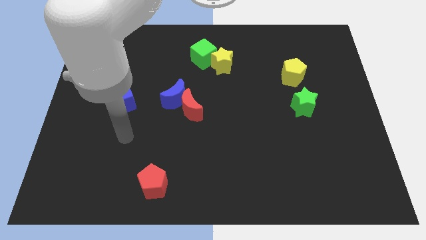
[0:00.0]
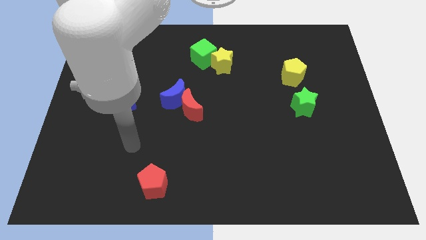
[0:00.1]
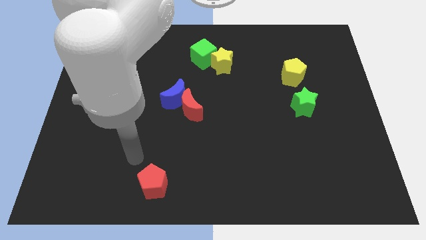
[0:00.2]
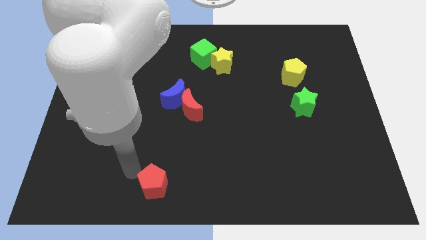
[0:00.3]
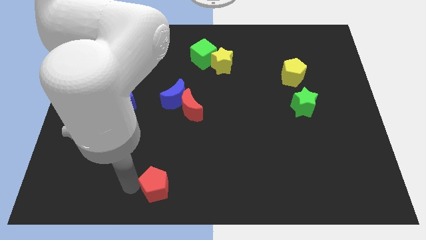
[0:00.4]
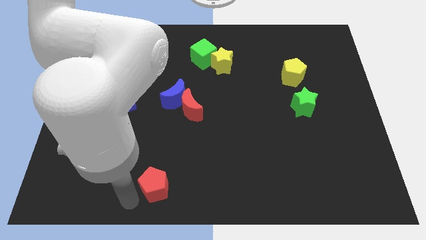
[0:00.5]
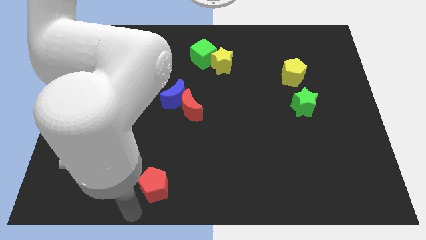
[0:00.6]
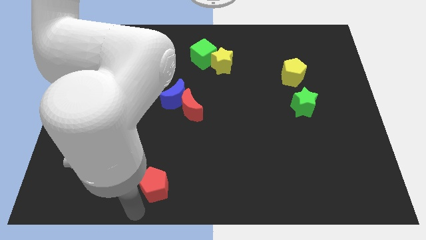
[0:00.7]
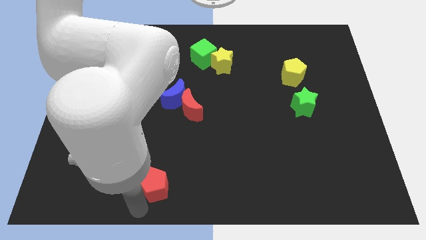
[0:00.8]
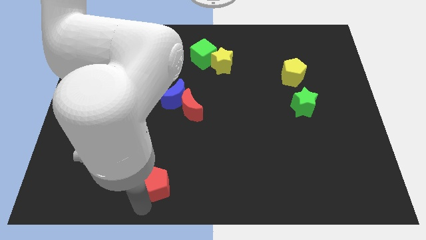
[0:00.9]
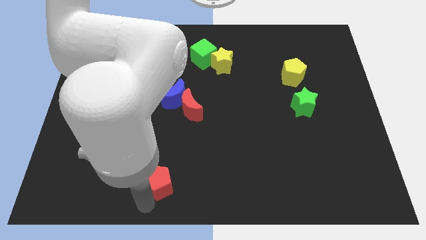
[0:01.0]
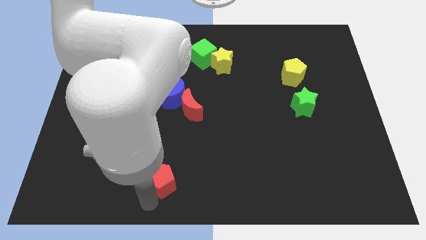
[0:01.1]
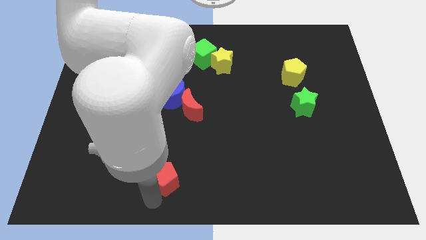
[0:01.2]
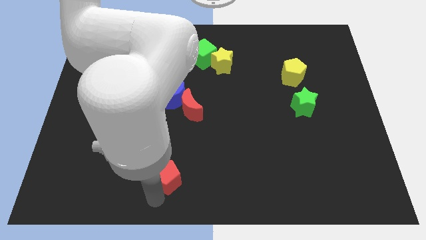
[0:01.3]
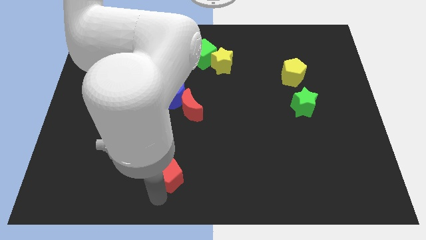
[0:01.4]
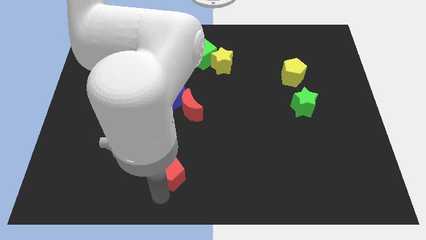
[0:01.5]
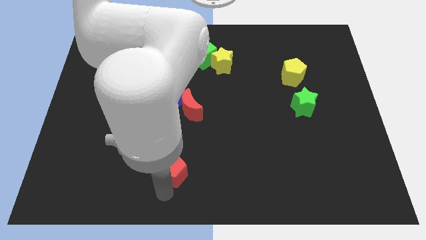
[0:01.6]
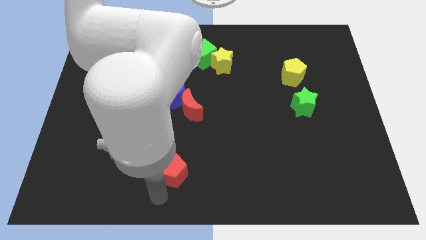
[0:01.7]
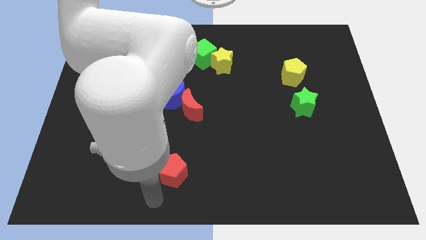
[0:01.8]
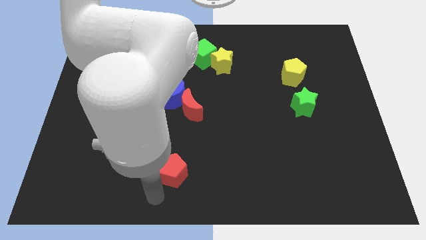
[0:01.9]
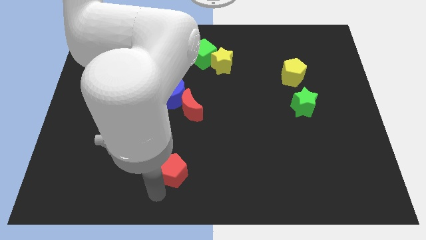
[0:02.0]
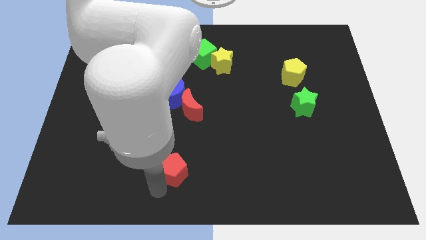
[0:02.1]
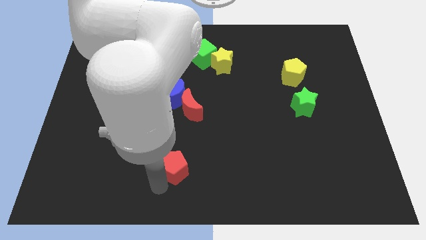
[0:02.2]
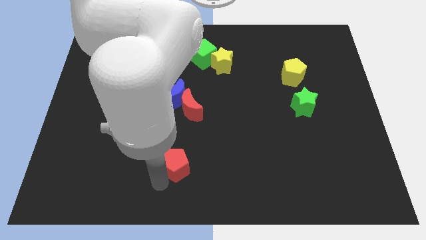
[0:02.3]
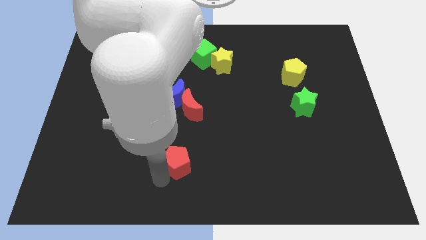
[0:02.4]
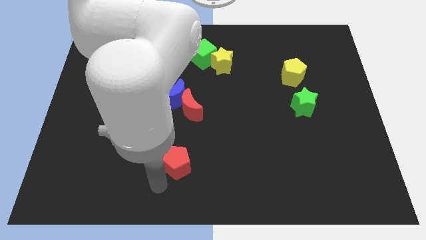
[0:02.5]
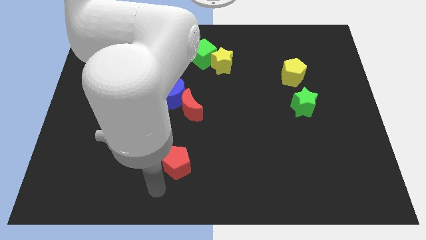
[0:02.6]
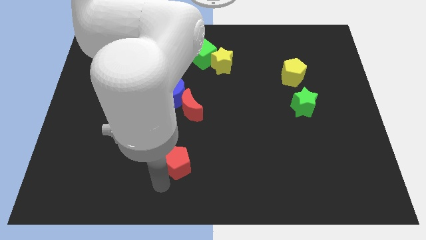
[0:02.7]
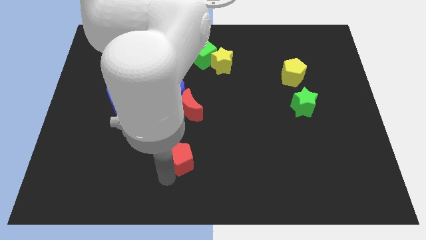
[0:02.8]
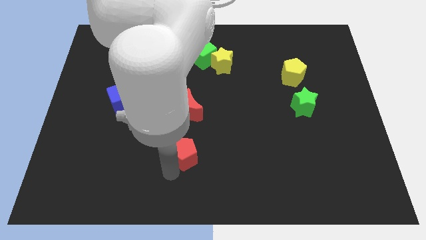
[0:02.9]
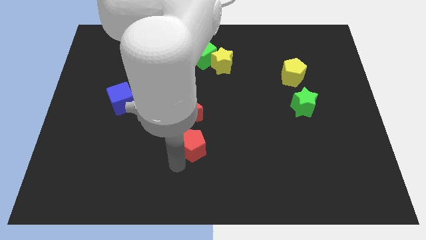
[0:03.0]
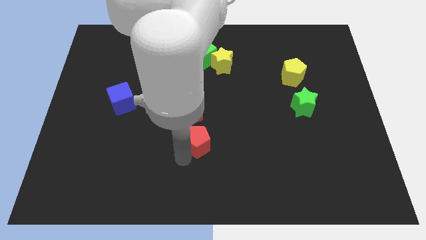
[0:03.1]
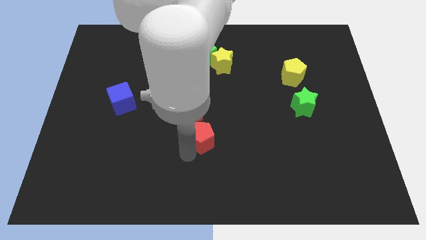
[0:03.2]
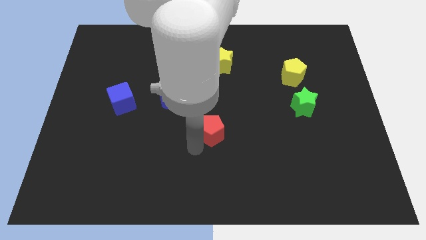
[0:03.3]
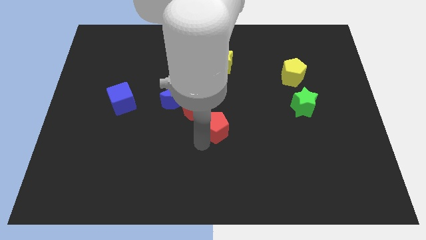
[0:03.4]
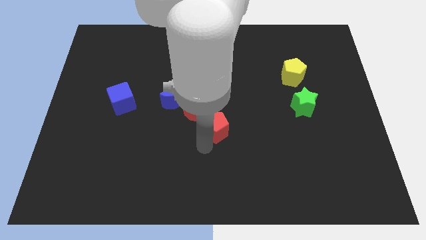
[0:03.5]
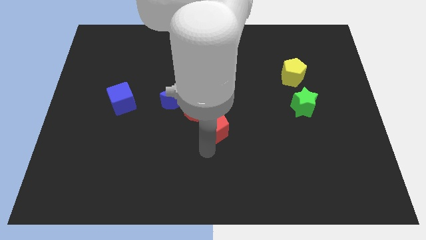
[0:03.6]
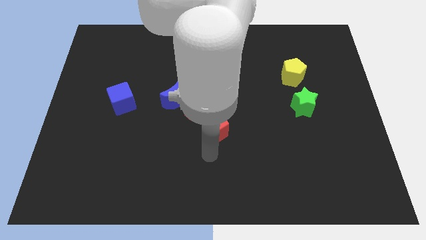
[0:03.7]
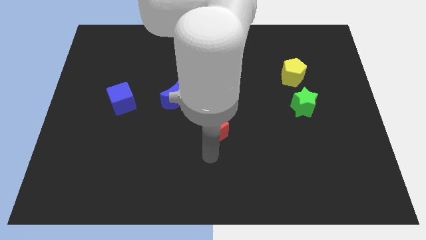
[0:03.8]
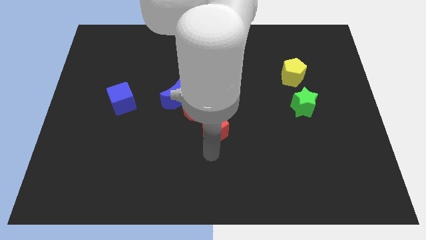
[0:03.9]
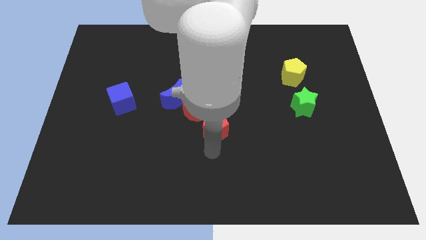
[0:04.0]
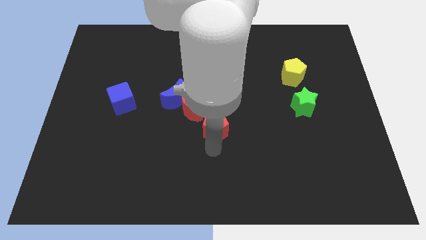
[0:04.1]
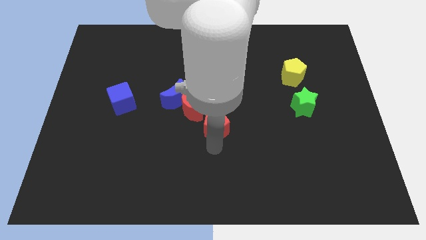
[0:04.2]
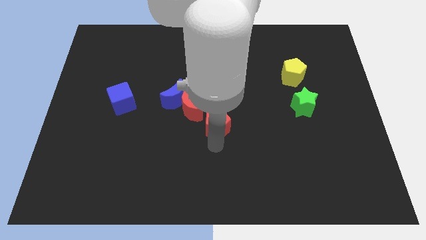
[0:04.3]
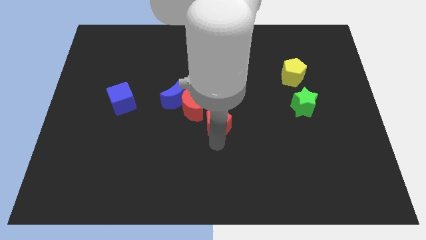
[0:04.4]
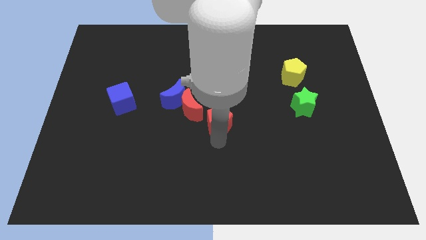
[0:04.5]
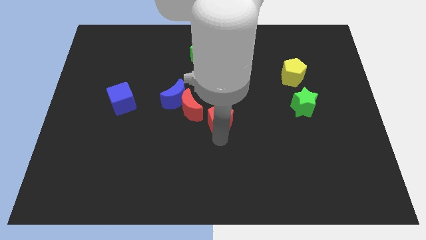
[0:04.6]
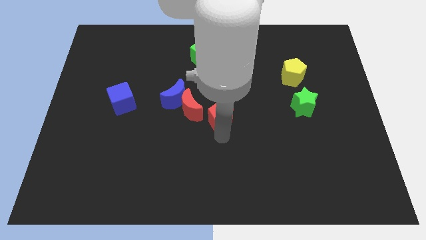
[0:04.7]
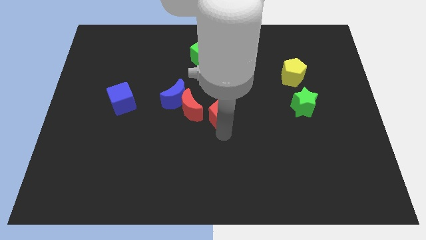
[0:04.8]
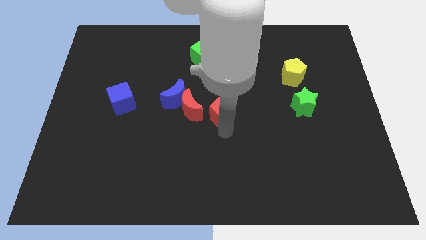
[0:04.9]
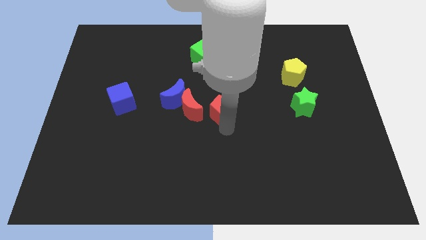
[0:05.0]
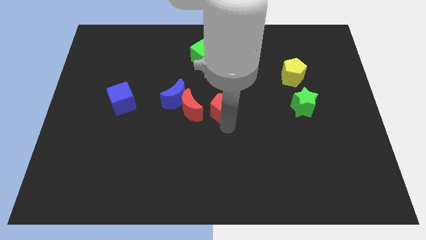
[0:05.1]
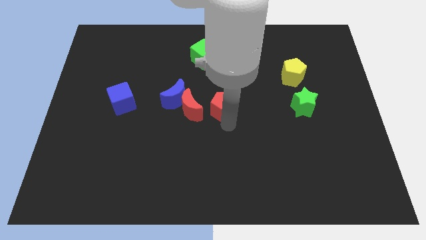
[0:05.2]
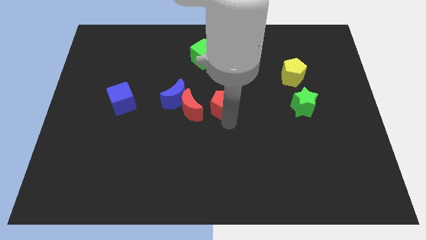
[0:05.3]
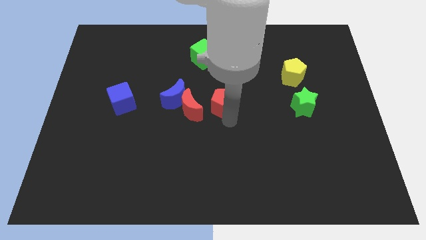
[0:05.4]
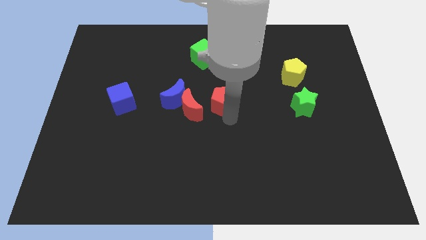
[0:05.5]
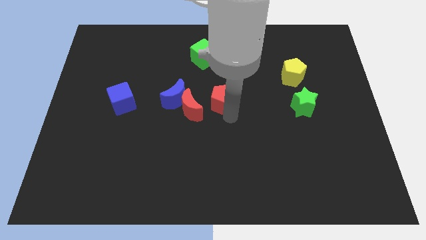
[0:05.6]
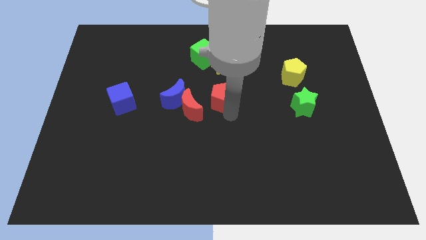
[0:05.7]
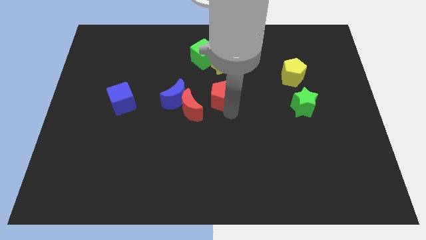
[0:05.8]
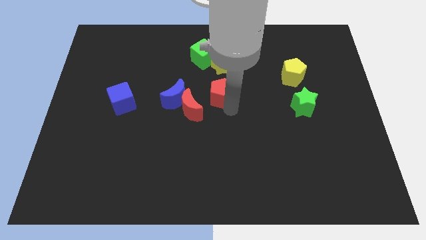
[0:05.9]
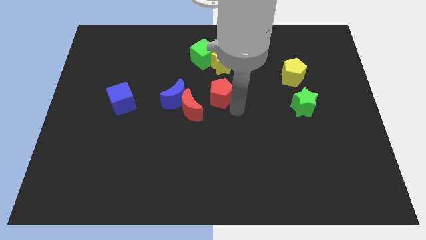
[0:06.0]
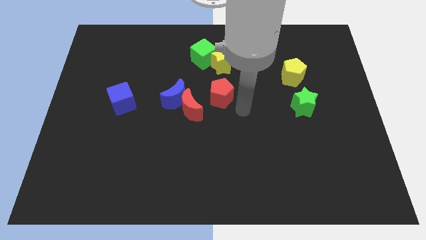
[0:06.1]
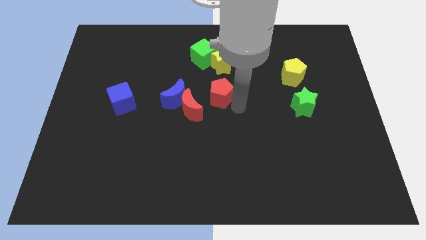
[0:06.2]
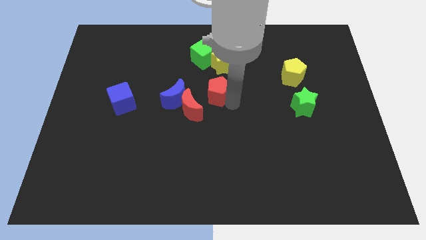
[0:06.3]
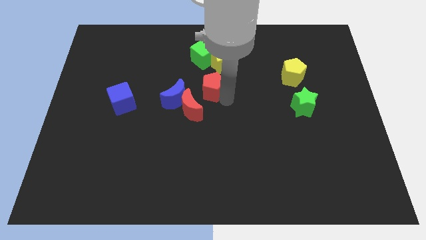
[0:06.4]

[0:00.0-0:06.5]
slide the red pentagon diagonally up and to the right of the blue moon
